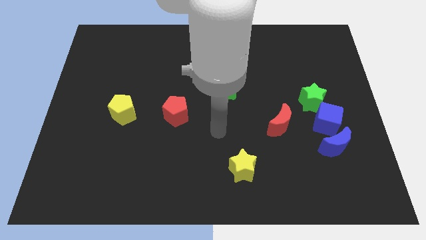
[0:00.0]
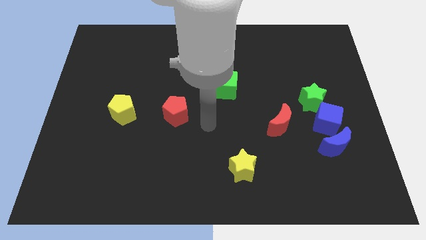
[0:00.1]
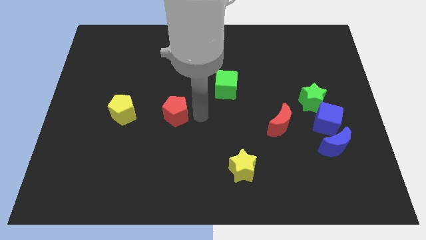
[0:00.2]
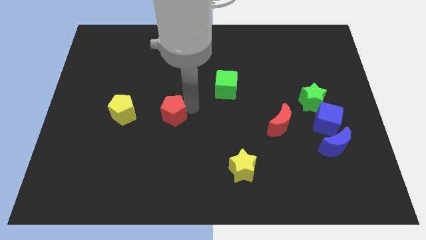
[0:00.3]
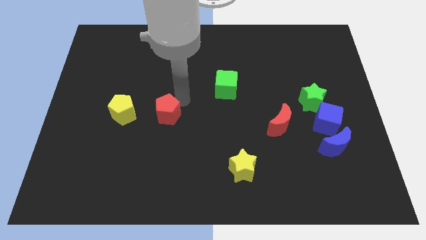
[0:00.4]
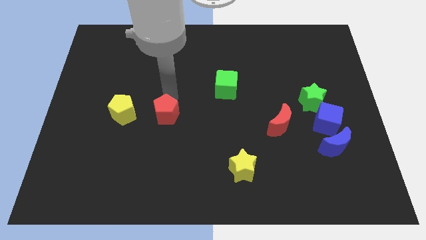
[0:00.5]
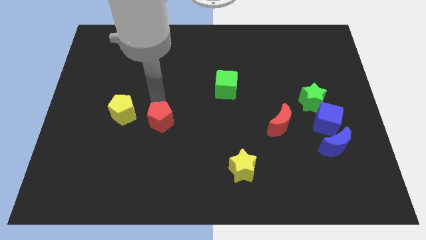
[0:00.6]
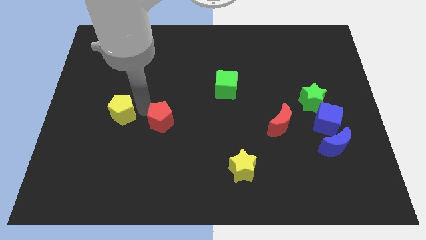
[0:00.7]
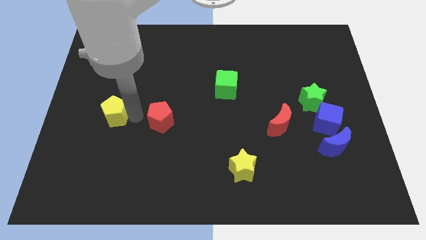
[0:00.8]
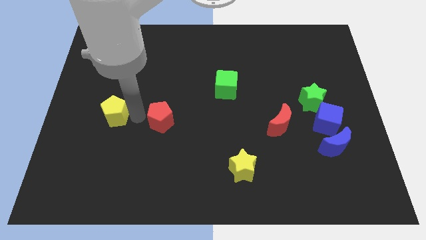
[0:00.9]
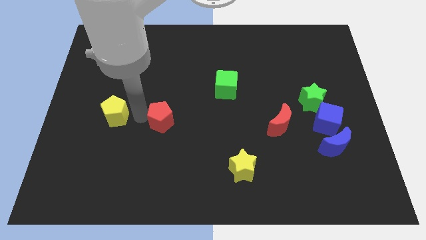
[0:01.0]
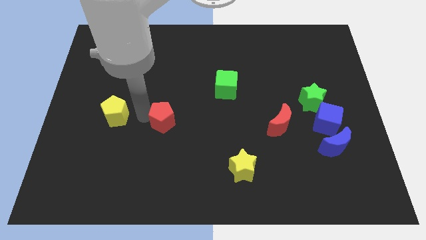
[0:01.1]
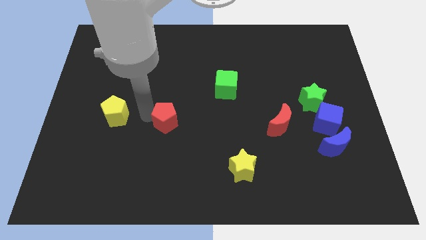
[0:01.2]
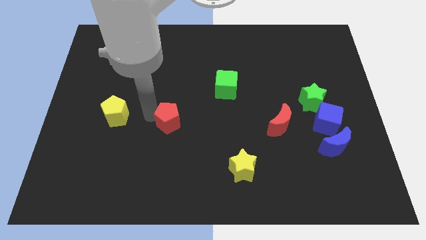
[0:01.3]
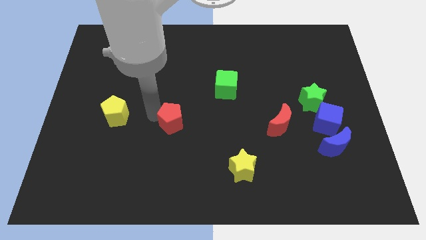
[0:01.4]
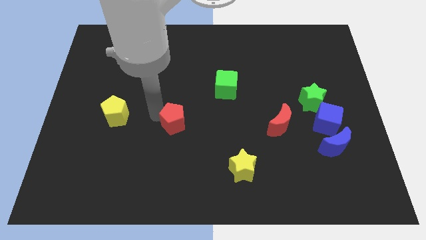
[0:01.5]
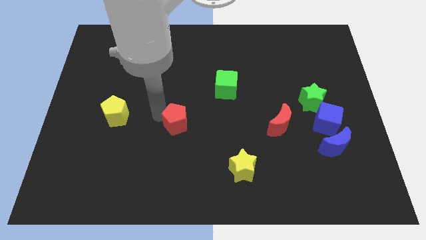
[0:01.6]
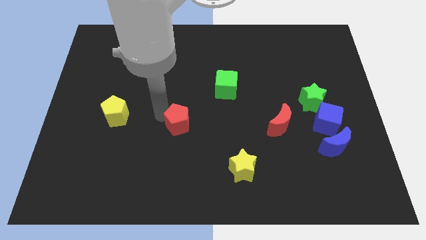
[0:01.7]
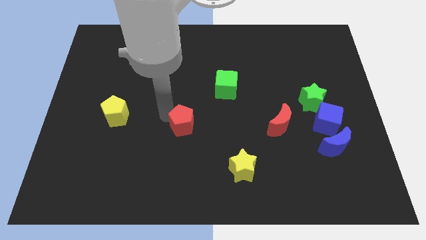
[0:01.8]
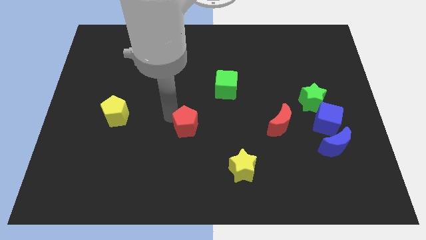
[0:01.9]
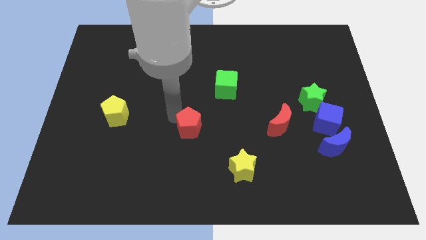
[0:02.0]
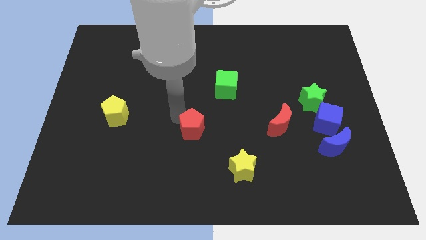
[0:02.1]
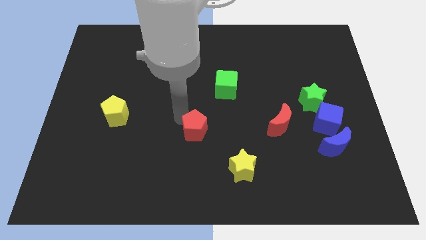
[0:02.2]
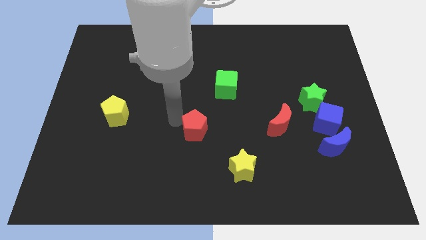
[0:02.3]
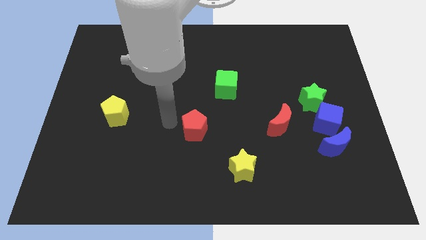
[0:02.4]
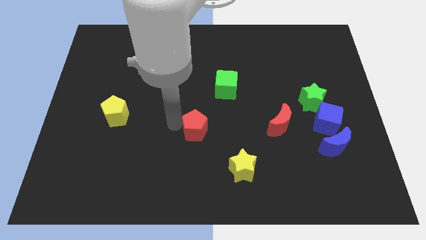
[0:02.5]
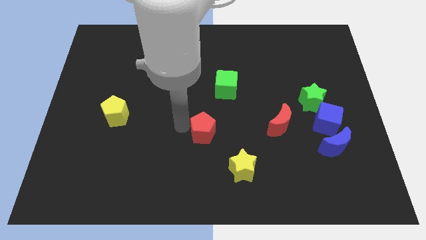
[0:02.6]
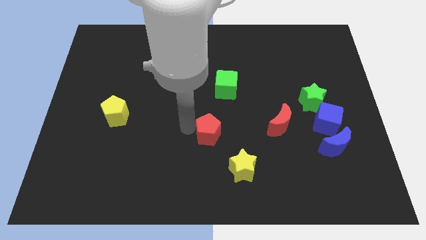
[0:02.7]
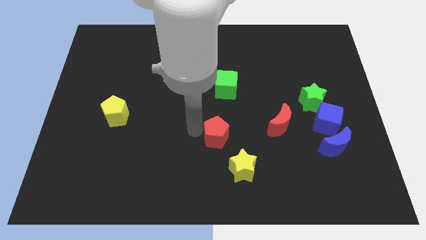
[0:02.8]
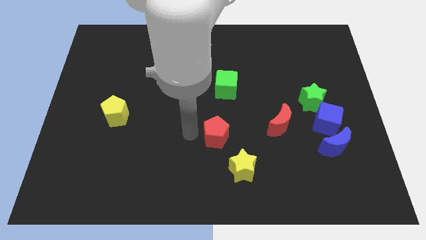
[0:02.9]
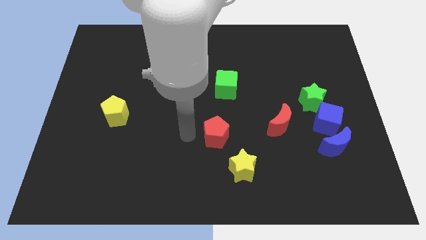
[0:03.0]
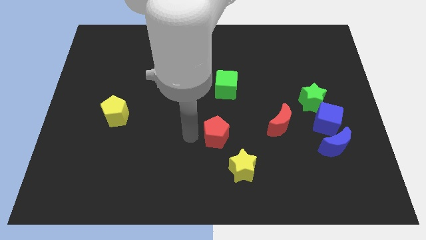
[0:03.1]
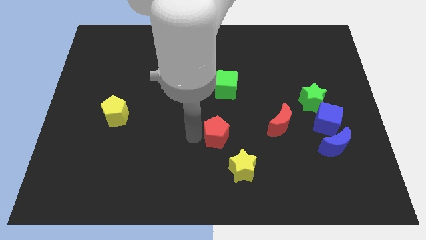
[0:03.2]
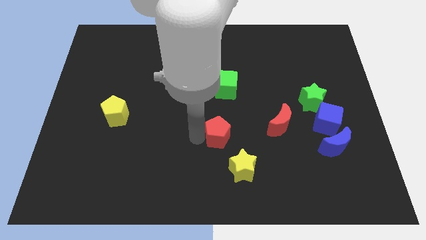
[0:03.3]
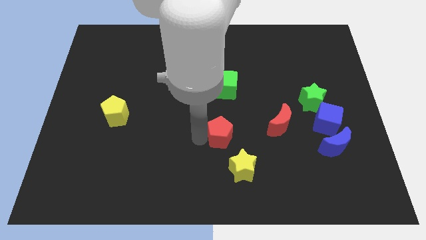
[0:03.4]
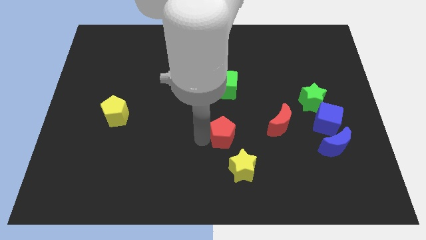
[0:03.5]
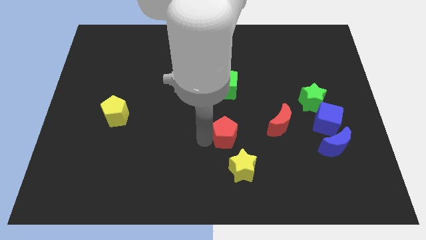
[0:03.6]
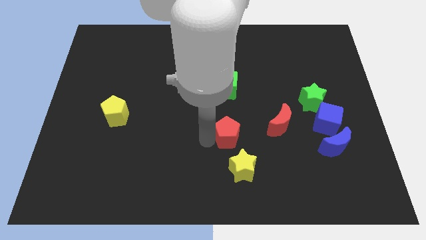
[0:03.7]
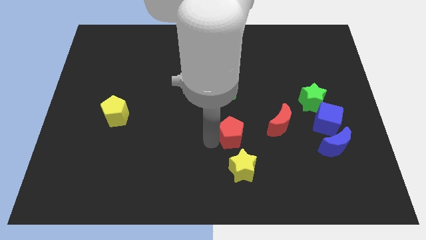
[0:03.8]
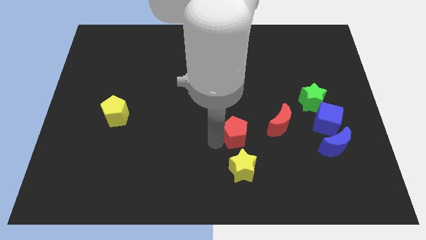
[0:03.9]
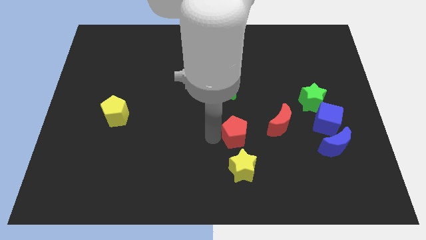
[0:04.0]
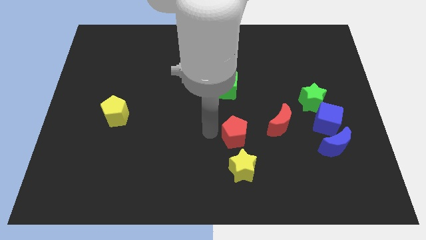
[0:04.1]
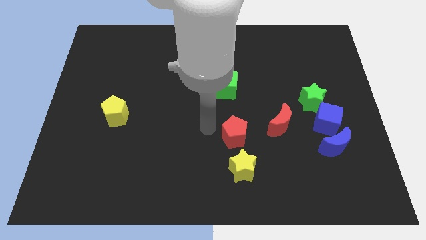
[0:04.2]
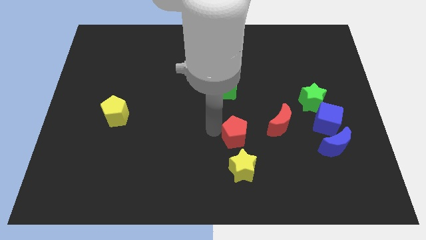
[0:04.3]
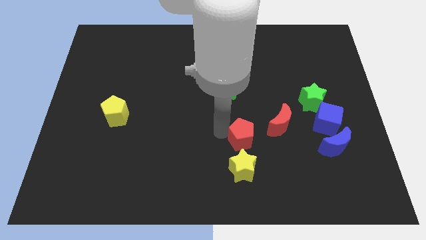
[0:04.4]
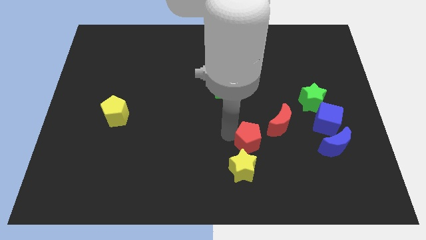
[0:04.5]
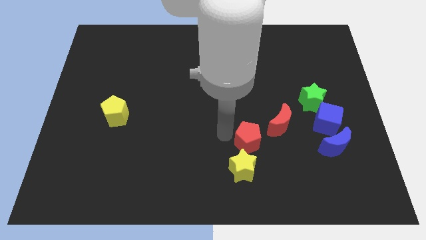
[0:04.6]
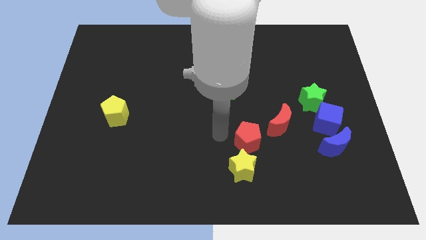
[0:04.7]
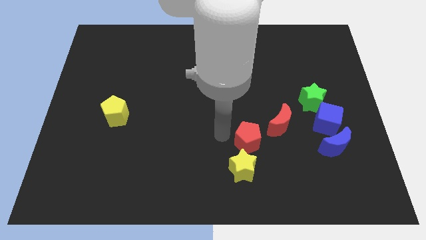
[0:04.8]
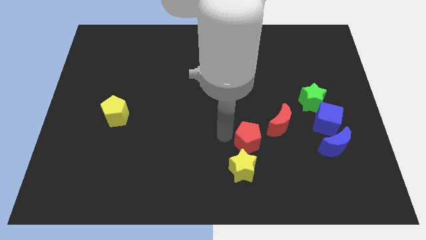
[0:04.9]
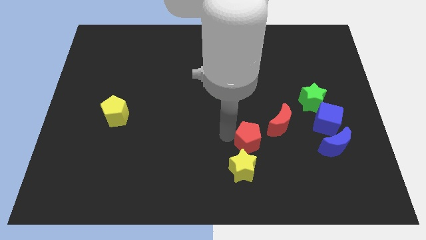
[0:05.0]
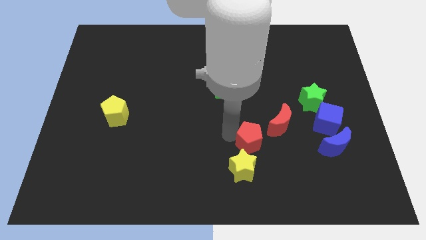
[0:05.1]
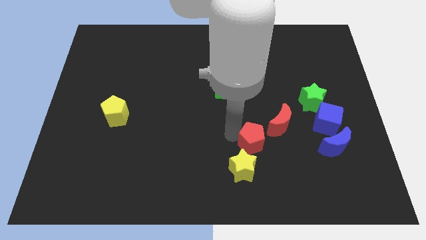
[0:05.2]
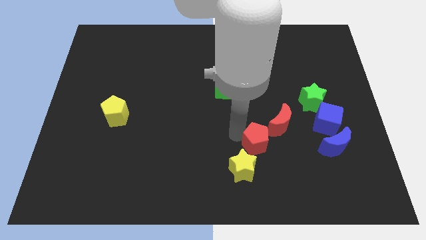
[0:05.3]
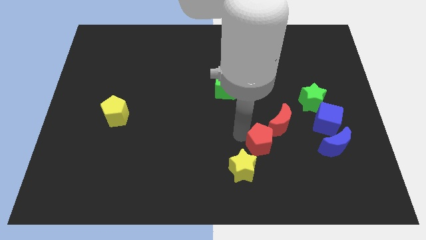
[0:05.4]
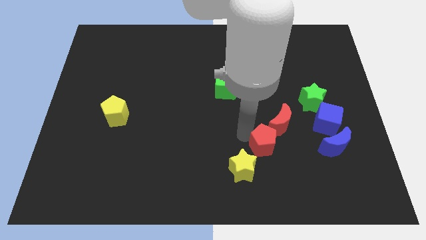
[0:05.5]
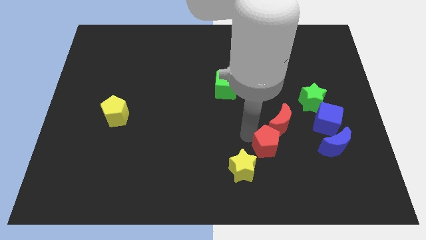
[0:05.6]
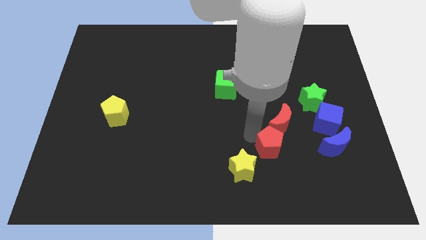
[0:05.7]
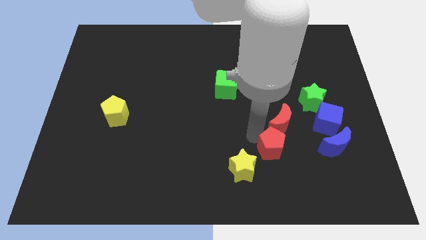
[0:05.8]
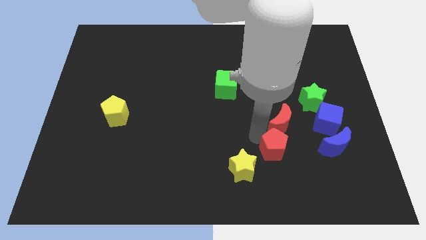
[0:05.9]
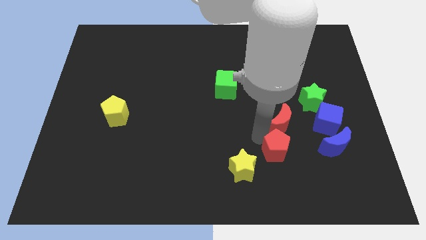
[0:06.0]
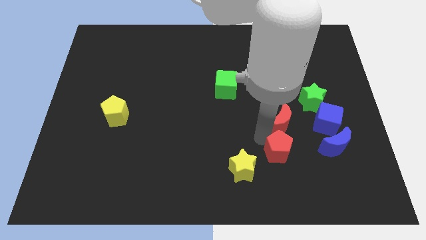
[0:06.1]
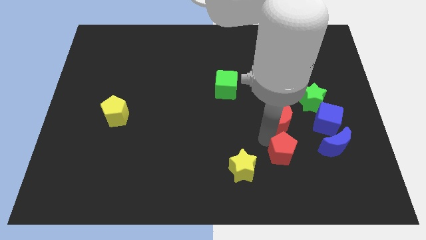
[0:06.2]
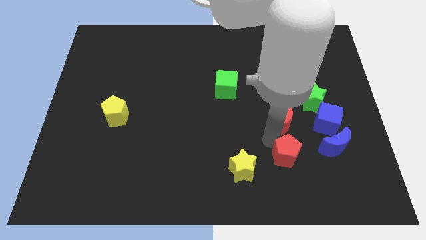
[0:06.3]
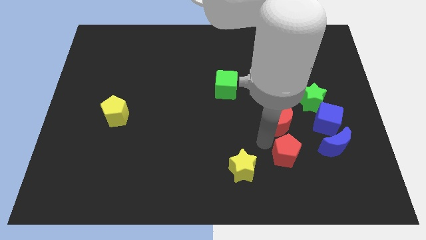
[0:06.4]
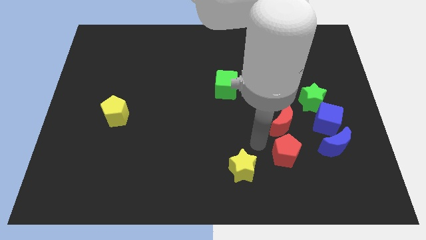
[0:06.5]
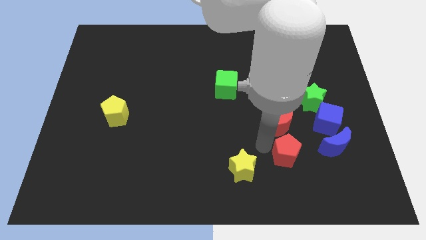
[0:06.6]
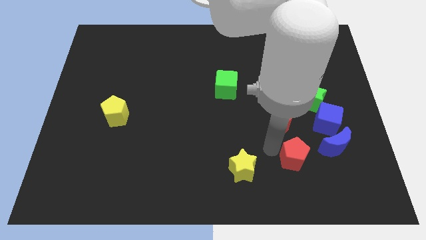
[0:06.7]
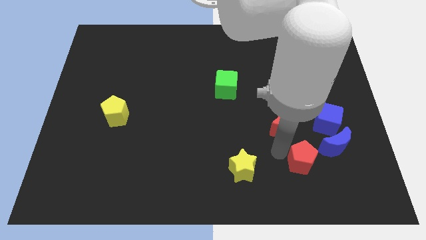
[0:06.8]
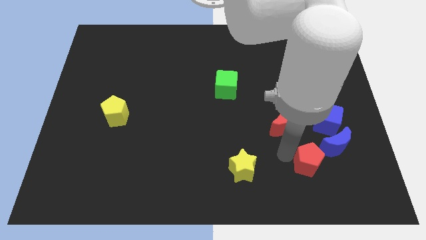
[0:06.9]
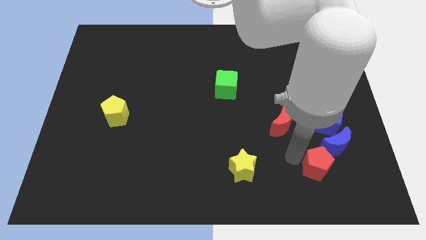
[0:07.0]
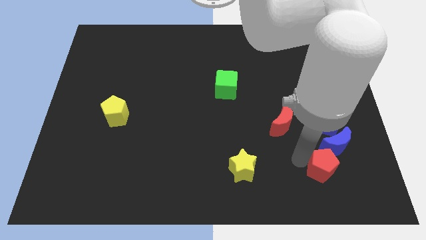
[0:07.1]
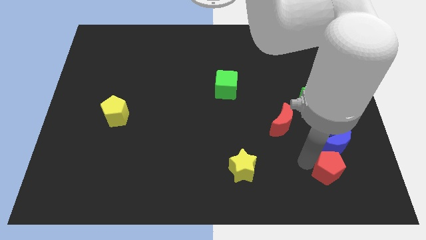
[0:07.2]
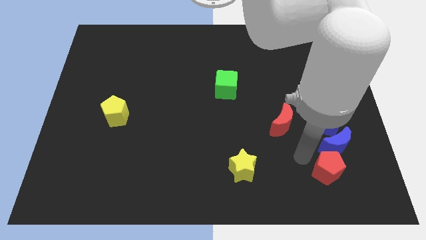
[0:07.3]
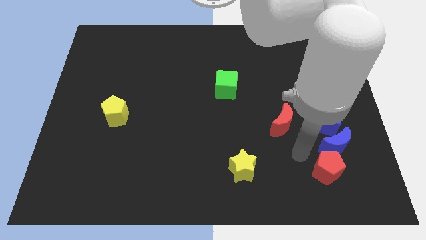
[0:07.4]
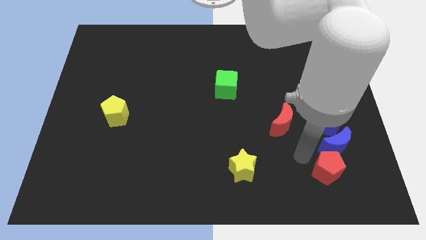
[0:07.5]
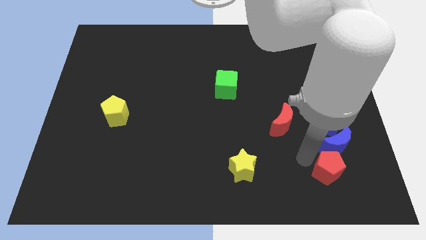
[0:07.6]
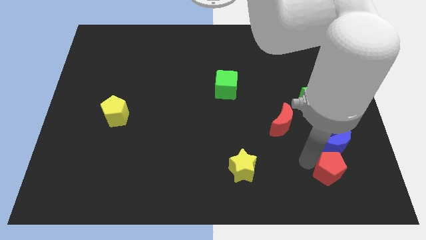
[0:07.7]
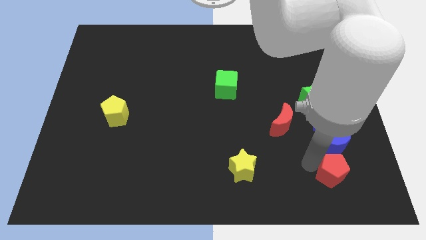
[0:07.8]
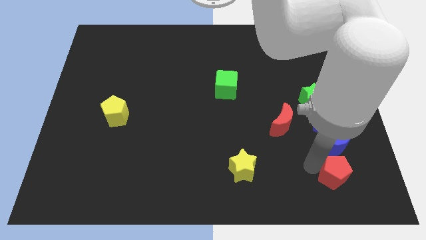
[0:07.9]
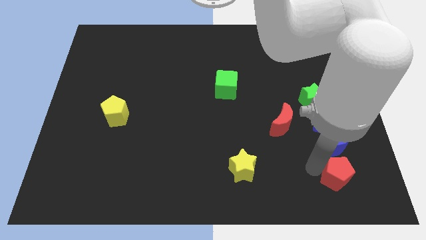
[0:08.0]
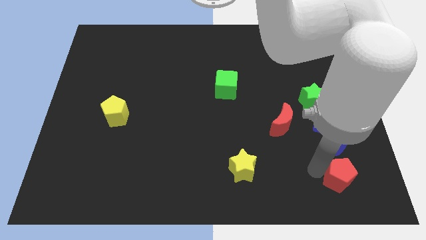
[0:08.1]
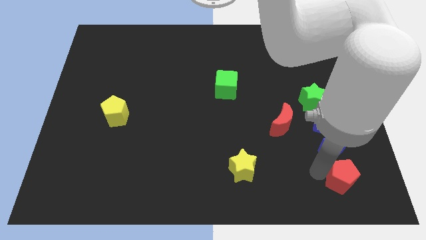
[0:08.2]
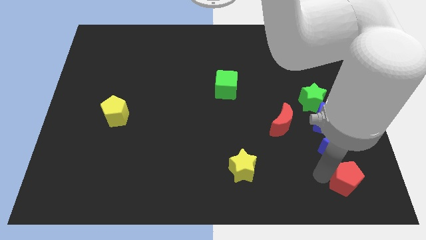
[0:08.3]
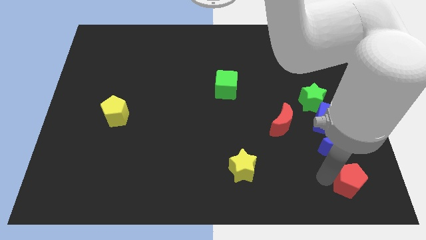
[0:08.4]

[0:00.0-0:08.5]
move the red pentagon to the bottom right corner
